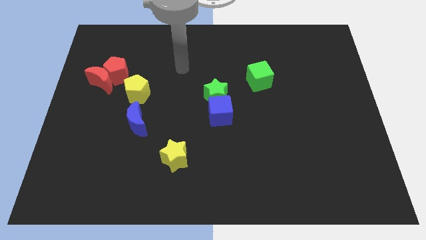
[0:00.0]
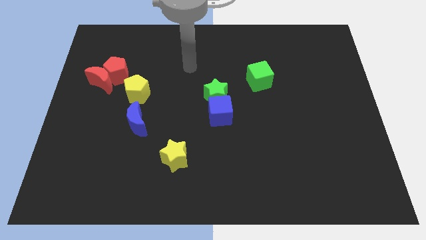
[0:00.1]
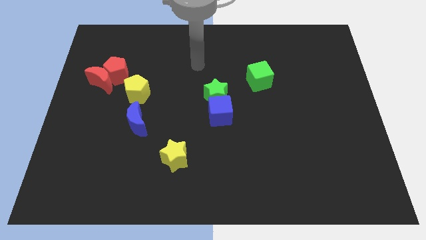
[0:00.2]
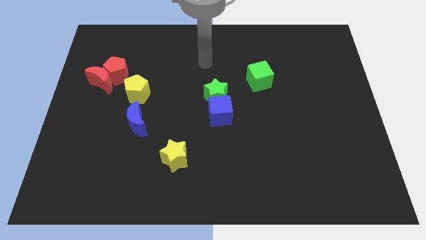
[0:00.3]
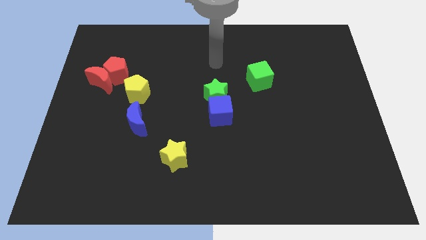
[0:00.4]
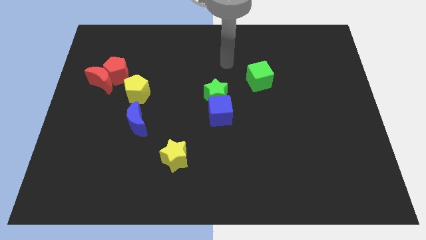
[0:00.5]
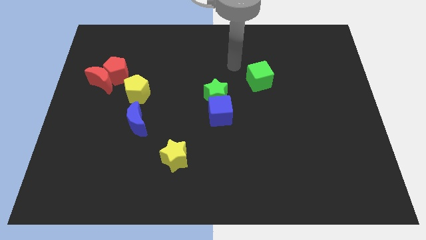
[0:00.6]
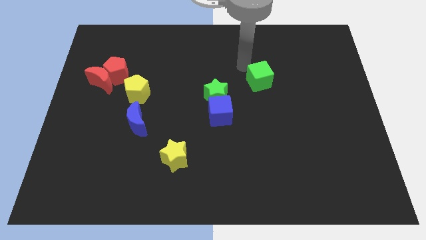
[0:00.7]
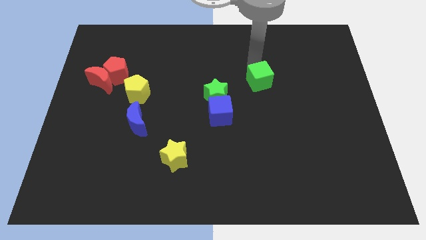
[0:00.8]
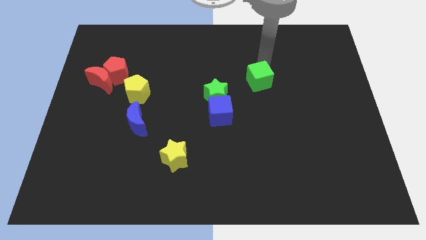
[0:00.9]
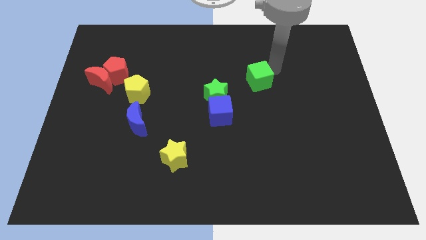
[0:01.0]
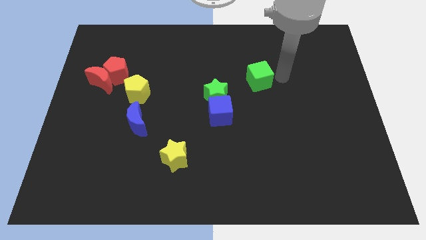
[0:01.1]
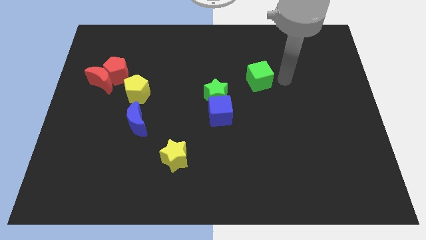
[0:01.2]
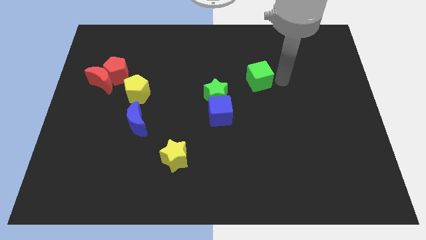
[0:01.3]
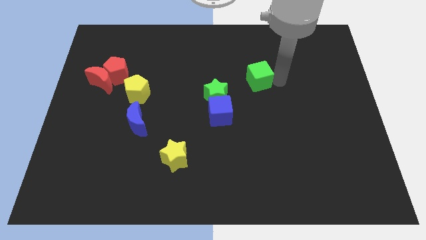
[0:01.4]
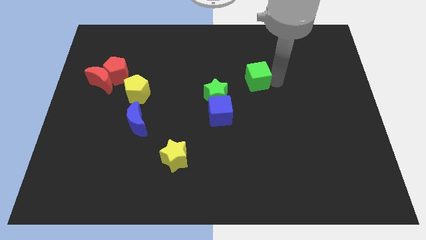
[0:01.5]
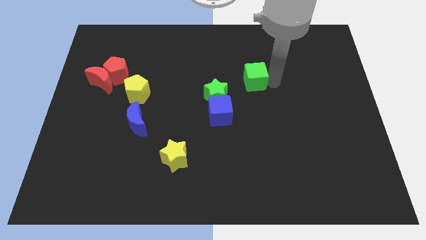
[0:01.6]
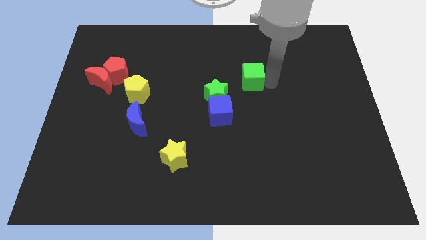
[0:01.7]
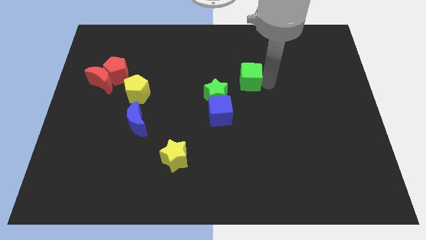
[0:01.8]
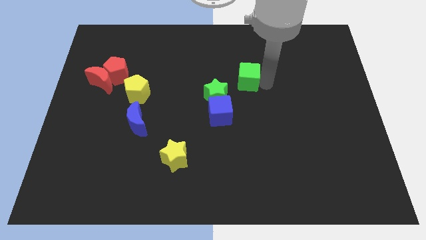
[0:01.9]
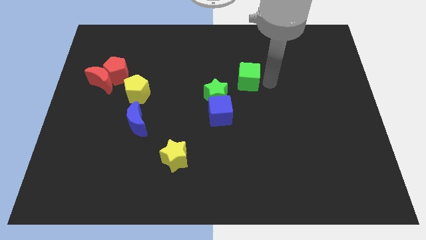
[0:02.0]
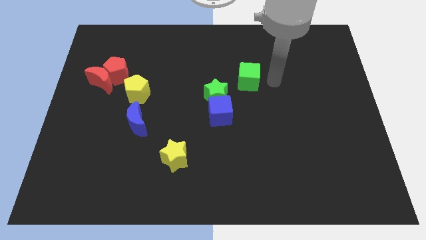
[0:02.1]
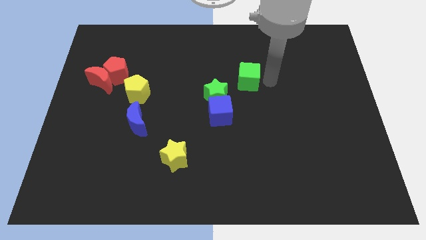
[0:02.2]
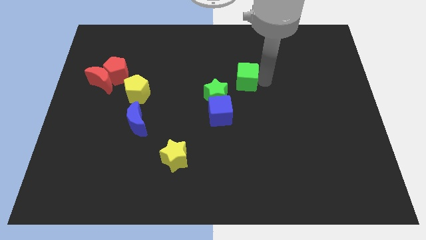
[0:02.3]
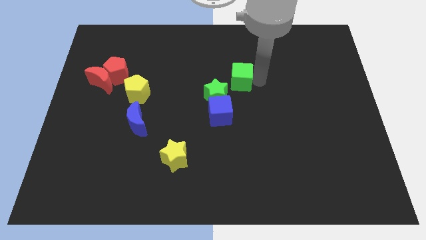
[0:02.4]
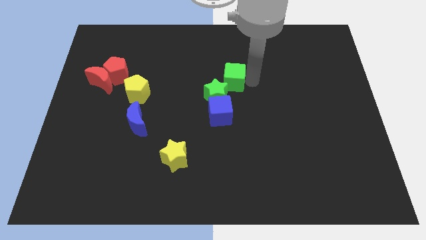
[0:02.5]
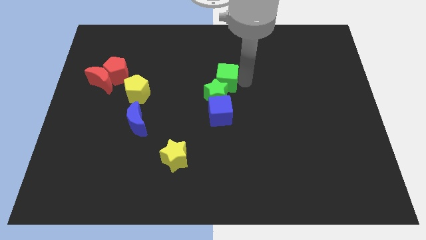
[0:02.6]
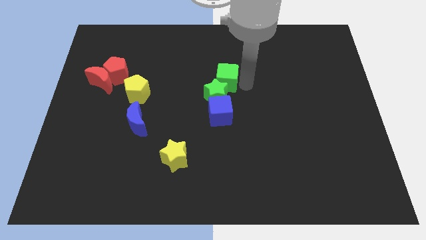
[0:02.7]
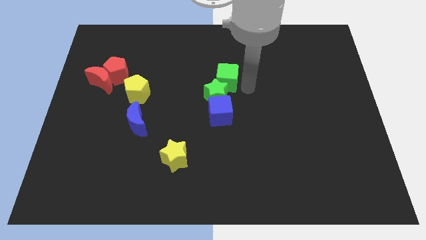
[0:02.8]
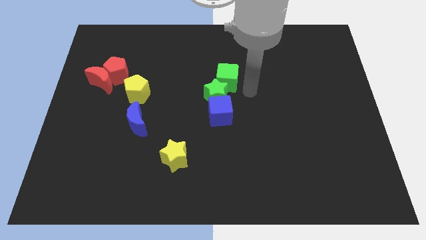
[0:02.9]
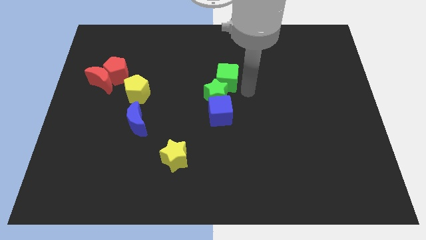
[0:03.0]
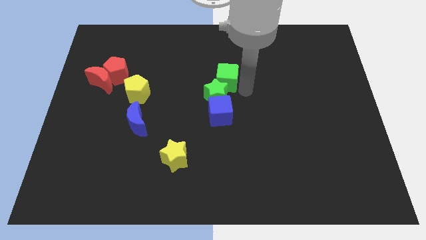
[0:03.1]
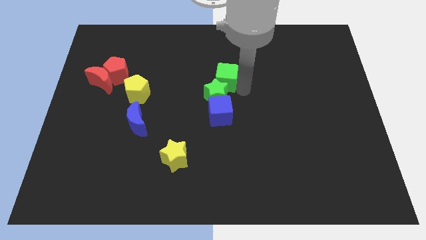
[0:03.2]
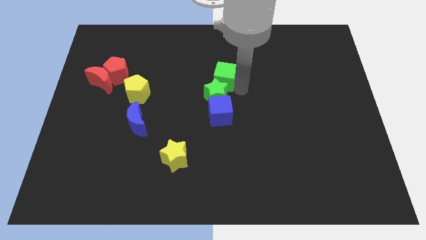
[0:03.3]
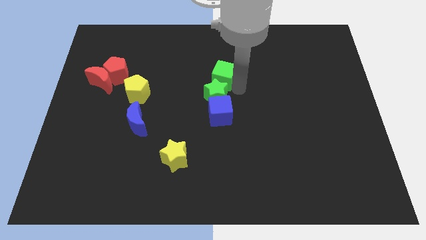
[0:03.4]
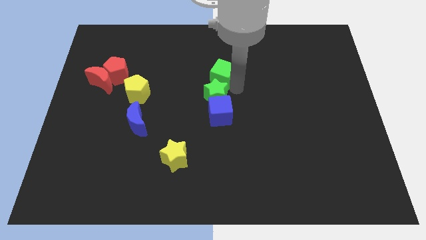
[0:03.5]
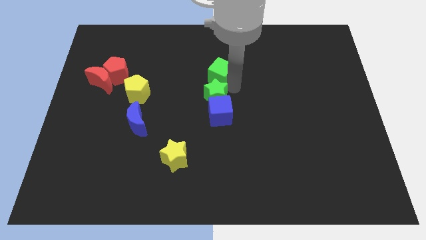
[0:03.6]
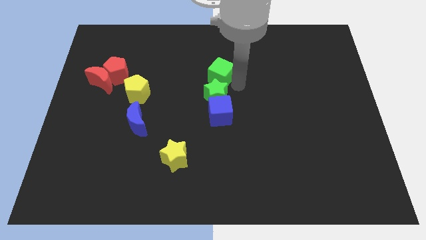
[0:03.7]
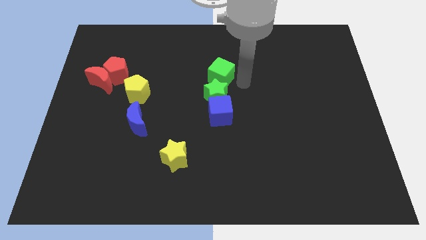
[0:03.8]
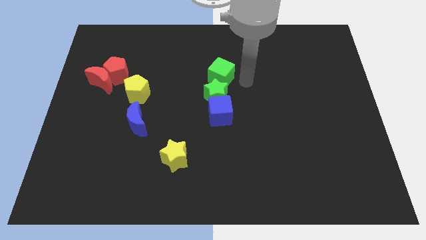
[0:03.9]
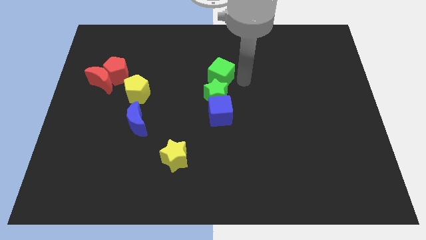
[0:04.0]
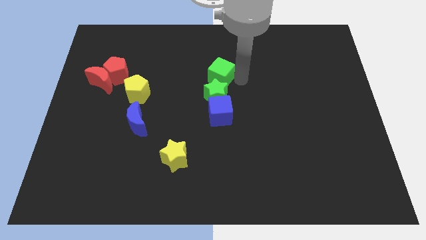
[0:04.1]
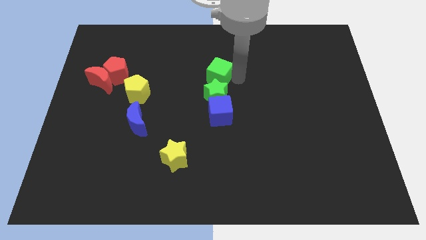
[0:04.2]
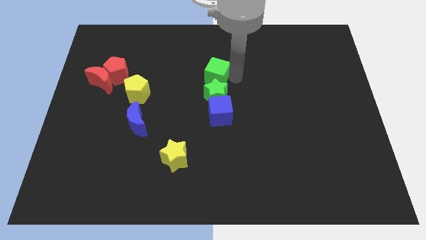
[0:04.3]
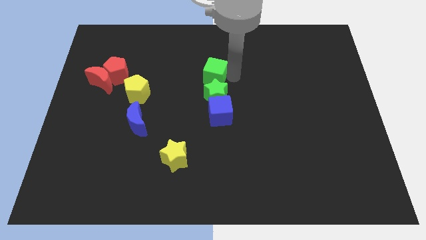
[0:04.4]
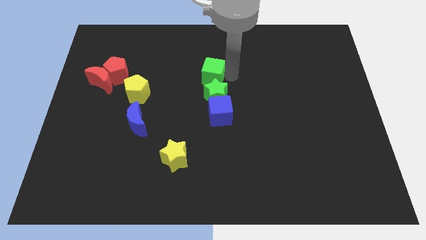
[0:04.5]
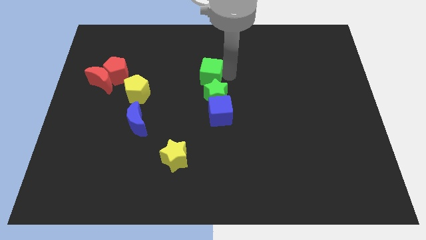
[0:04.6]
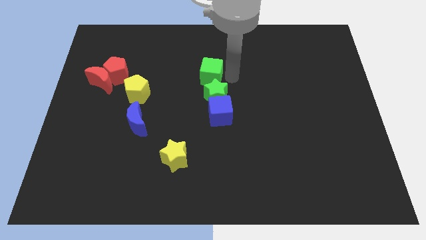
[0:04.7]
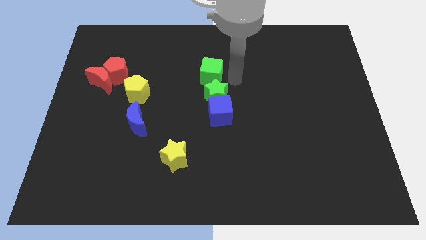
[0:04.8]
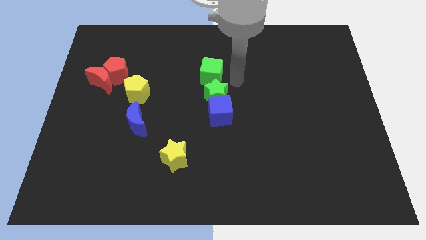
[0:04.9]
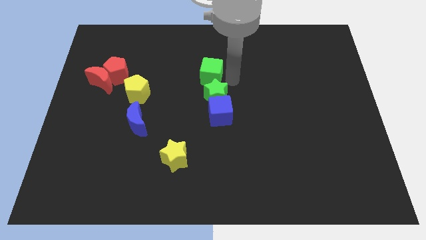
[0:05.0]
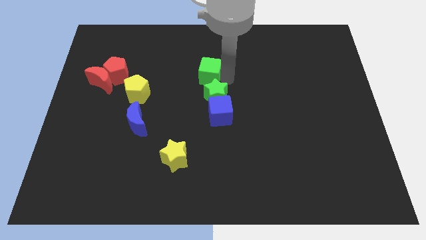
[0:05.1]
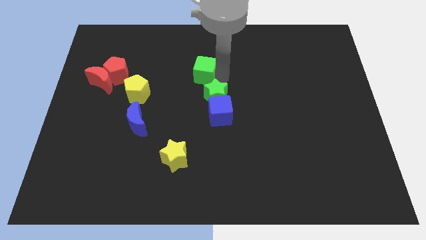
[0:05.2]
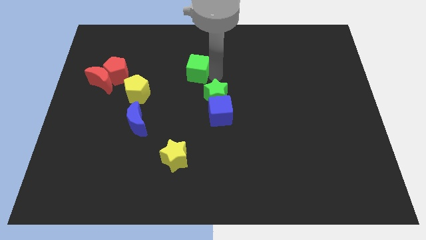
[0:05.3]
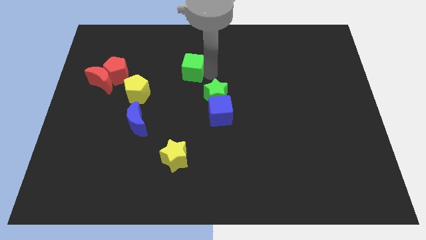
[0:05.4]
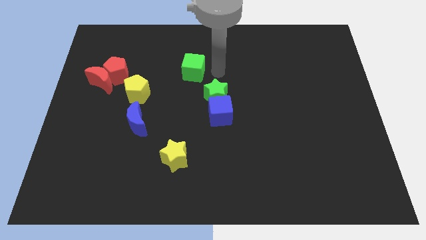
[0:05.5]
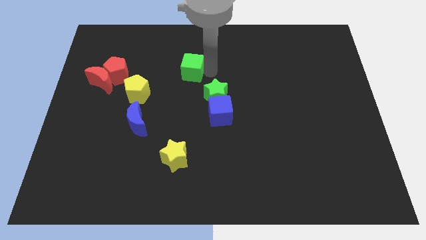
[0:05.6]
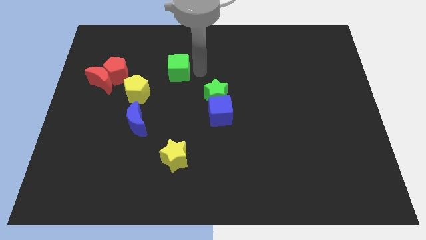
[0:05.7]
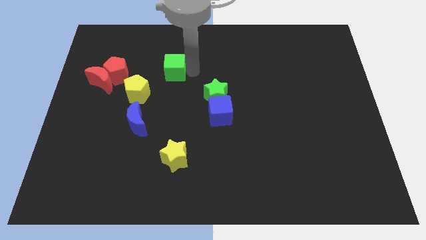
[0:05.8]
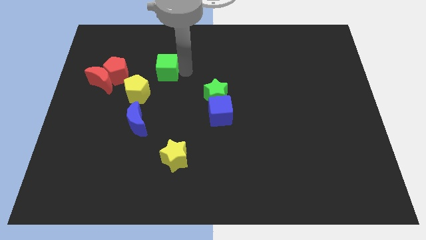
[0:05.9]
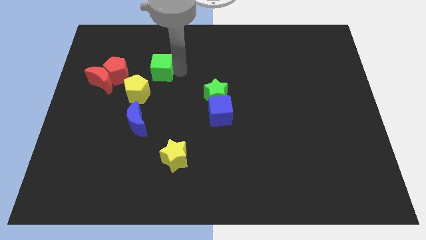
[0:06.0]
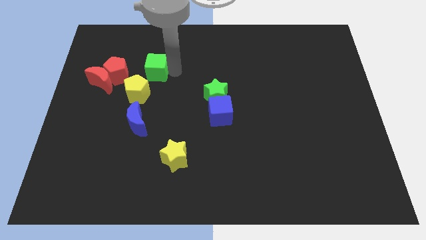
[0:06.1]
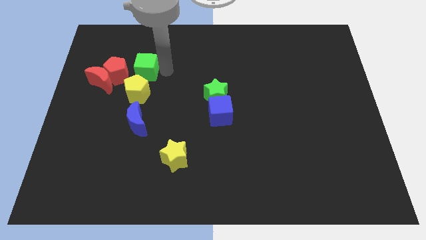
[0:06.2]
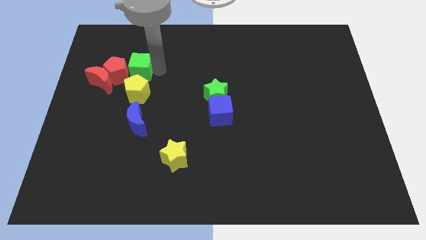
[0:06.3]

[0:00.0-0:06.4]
put the green cube to the red pentagon

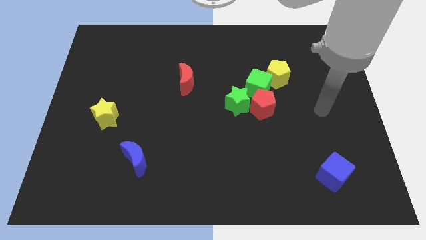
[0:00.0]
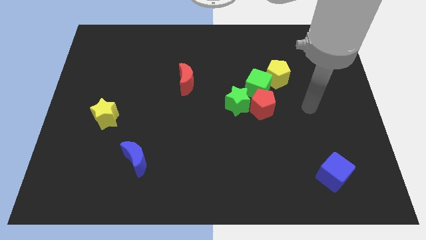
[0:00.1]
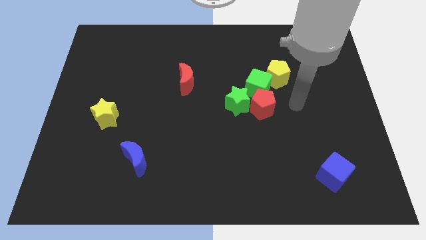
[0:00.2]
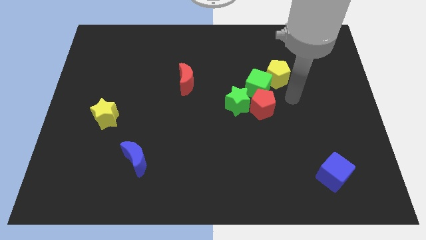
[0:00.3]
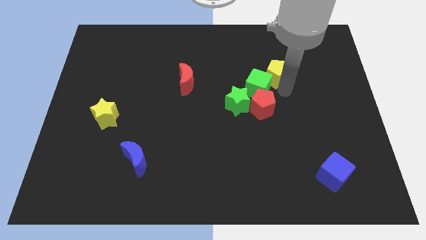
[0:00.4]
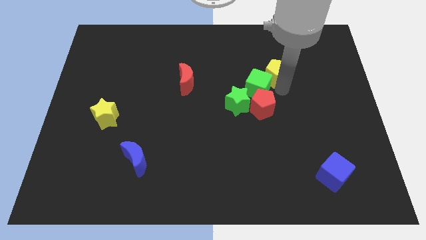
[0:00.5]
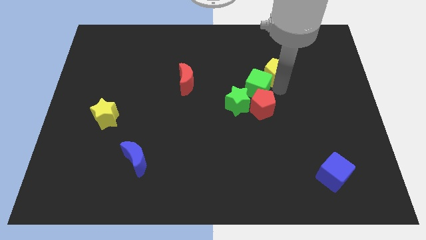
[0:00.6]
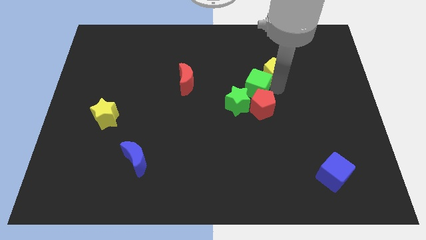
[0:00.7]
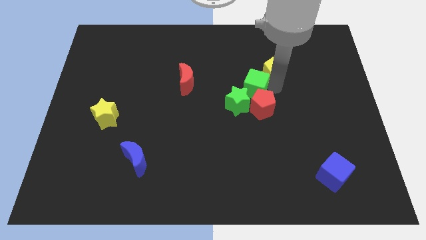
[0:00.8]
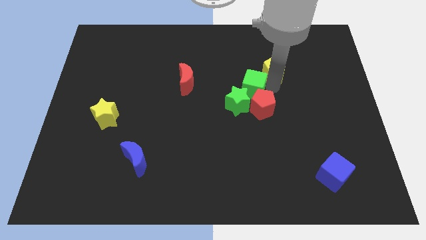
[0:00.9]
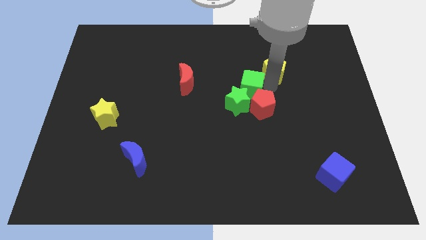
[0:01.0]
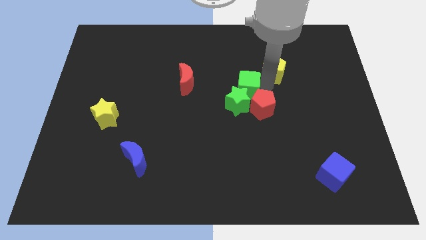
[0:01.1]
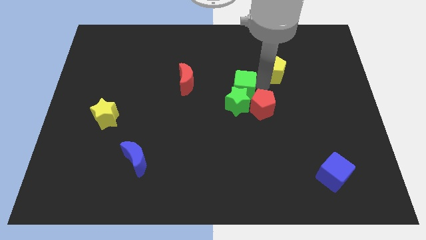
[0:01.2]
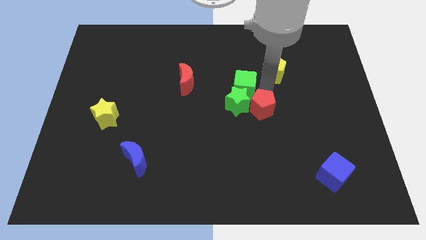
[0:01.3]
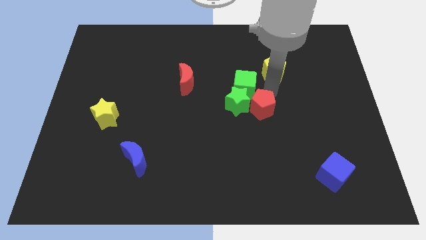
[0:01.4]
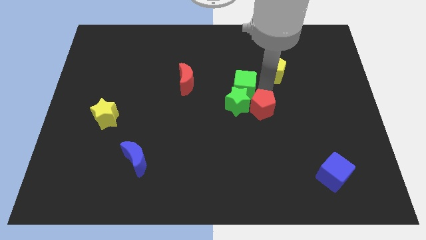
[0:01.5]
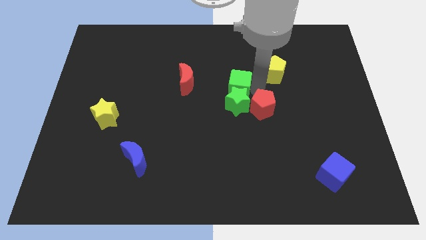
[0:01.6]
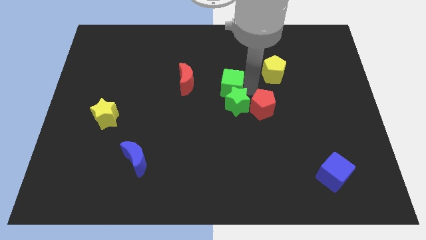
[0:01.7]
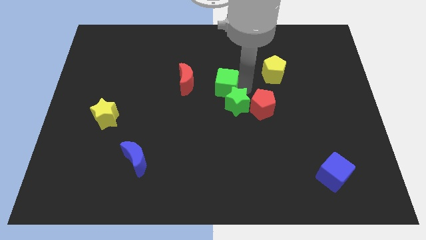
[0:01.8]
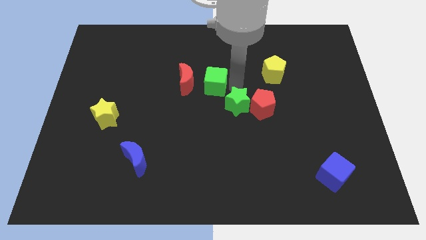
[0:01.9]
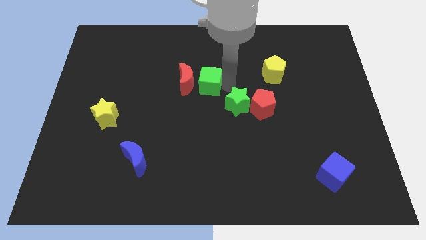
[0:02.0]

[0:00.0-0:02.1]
put the green cube close to the red moon
